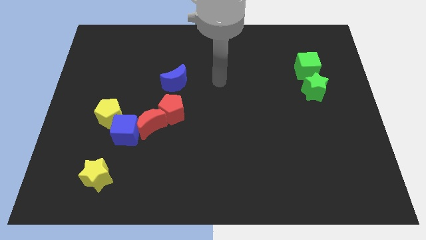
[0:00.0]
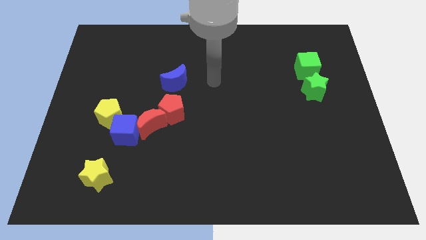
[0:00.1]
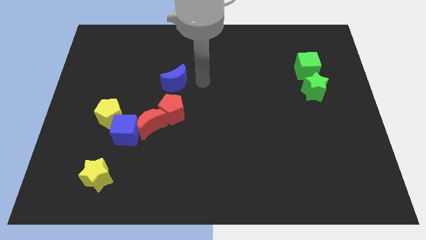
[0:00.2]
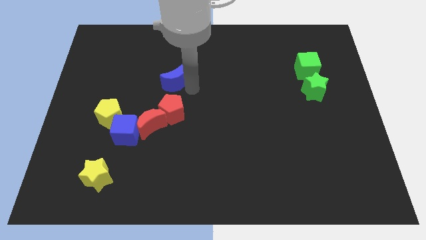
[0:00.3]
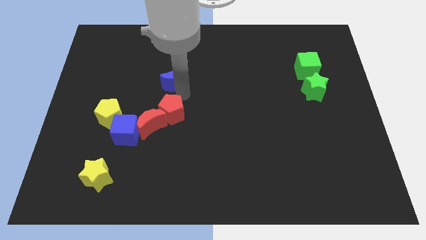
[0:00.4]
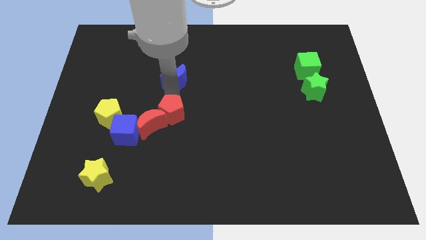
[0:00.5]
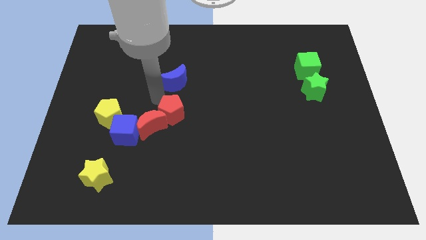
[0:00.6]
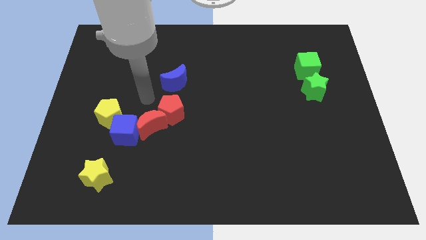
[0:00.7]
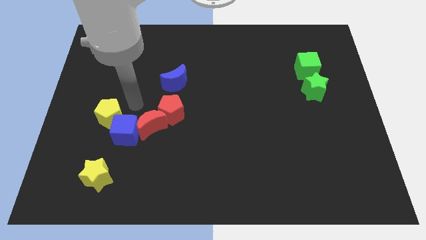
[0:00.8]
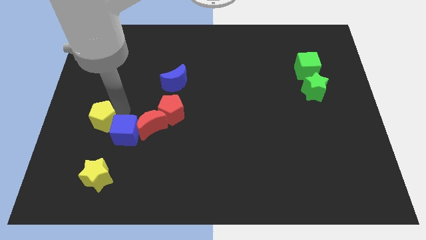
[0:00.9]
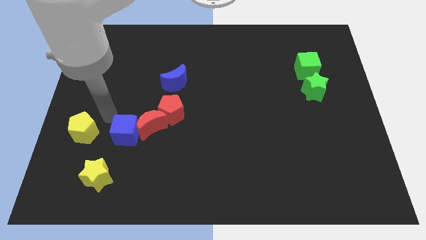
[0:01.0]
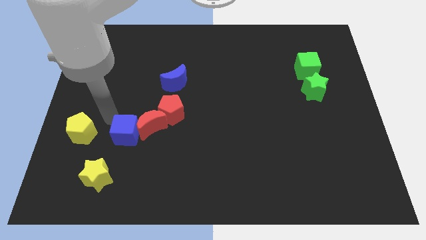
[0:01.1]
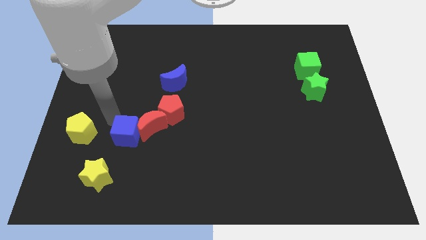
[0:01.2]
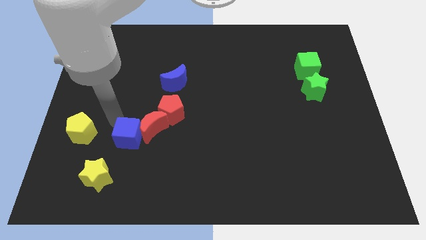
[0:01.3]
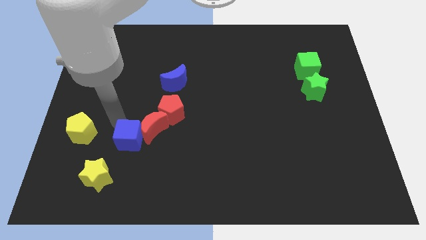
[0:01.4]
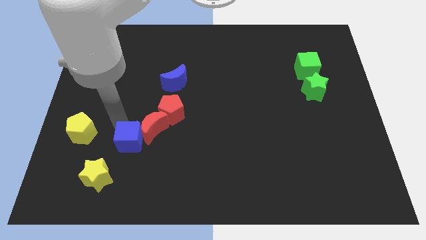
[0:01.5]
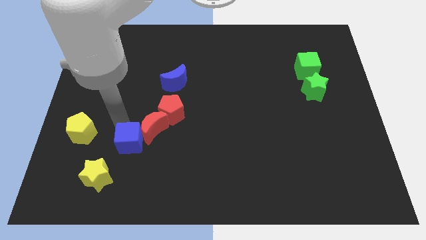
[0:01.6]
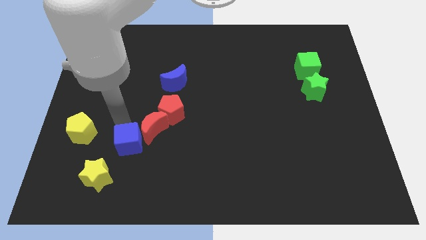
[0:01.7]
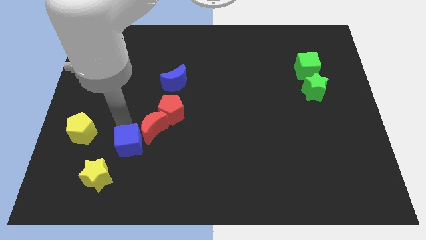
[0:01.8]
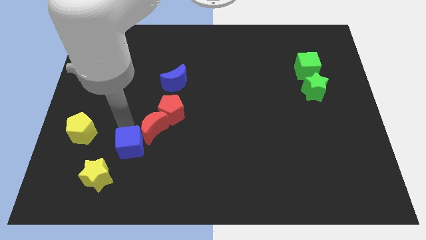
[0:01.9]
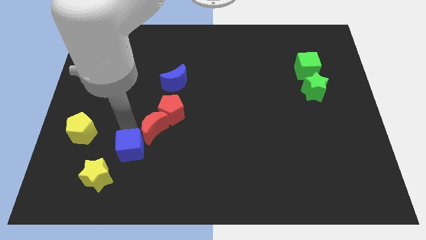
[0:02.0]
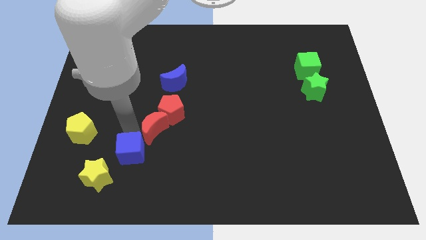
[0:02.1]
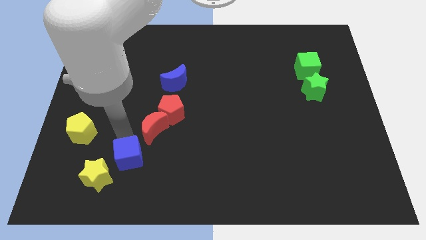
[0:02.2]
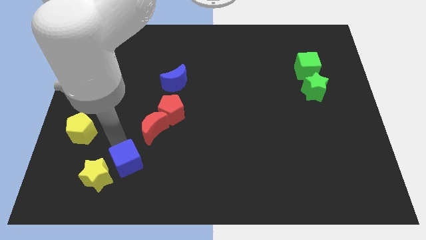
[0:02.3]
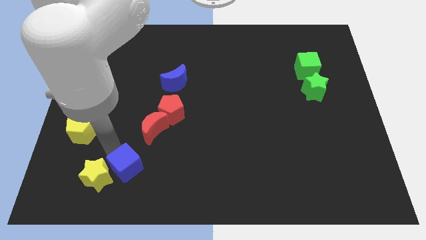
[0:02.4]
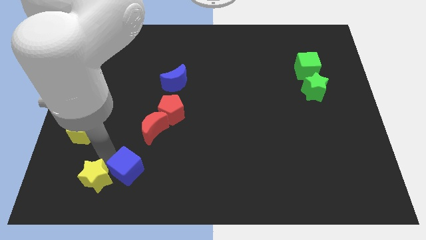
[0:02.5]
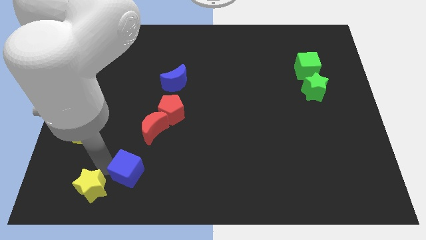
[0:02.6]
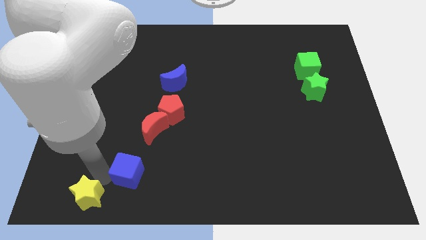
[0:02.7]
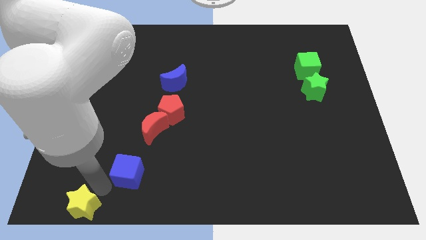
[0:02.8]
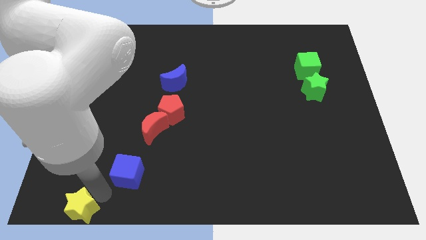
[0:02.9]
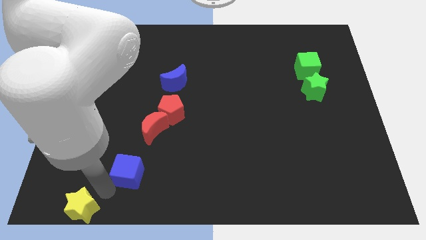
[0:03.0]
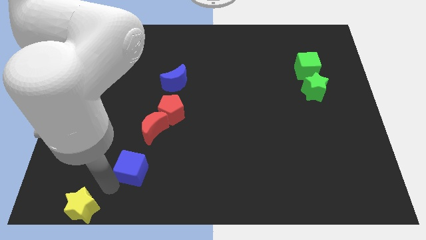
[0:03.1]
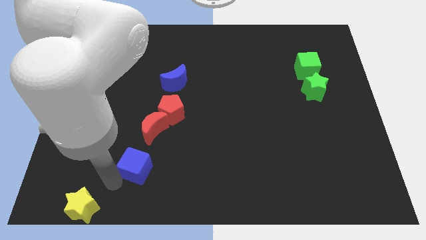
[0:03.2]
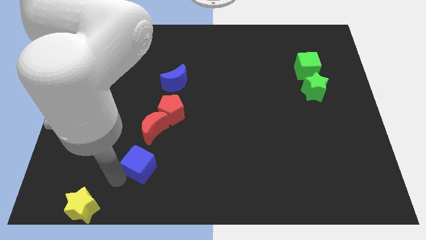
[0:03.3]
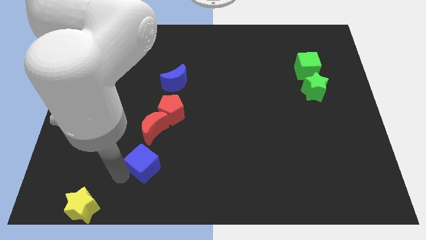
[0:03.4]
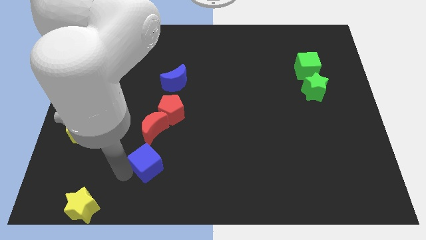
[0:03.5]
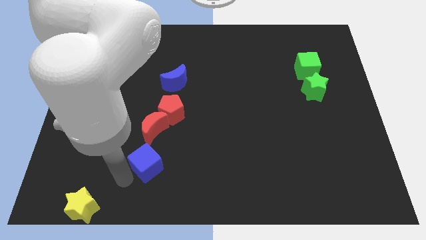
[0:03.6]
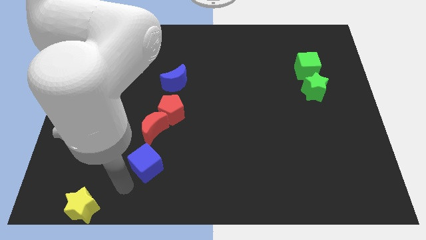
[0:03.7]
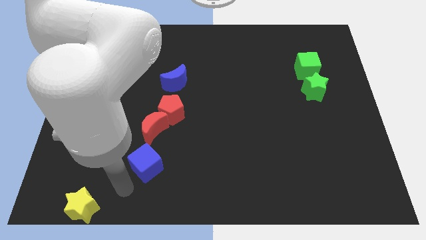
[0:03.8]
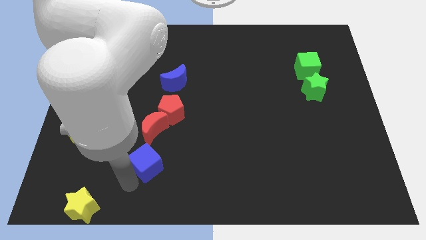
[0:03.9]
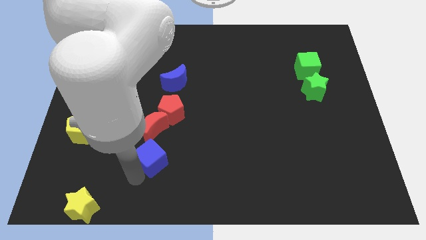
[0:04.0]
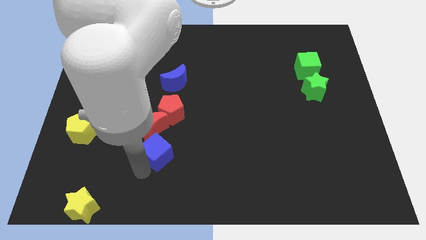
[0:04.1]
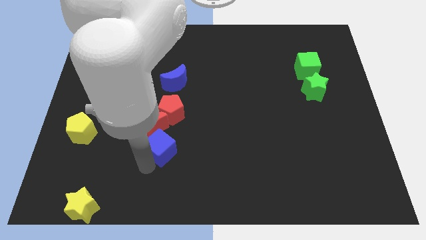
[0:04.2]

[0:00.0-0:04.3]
slide the blue cube right a little

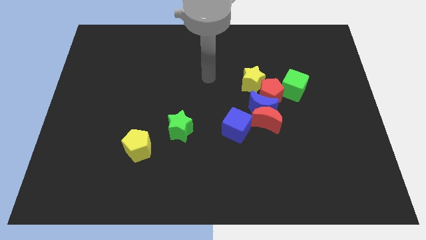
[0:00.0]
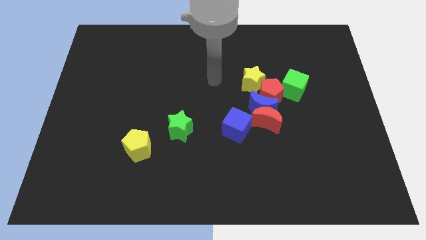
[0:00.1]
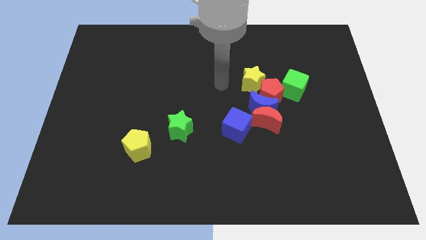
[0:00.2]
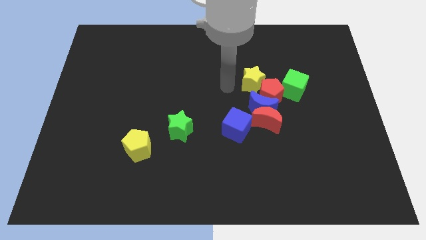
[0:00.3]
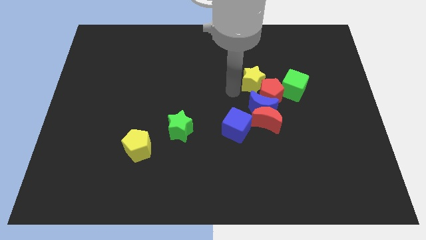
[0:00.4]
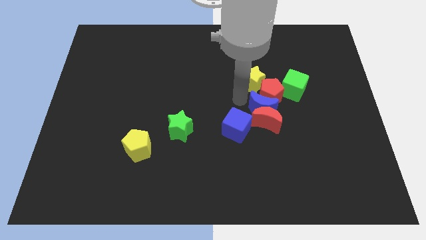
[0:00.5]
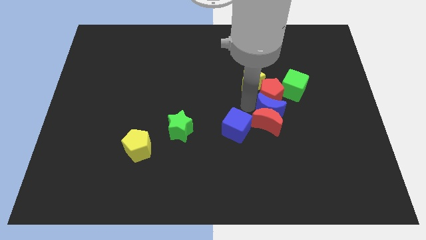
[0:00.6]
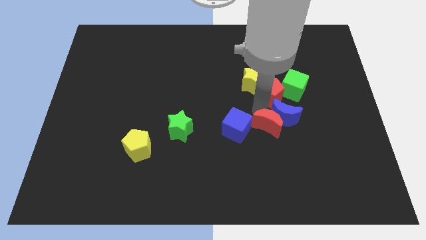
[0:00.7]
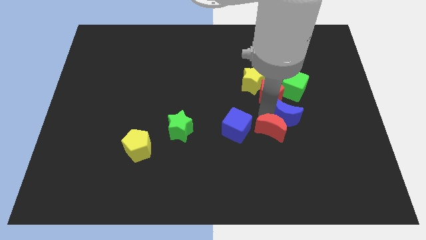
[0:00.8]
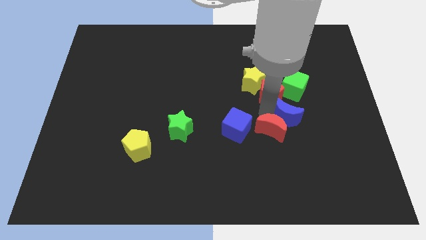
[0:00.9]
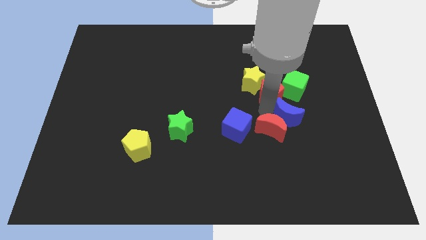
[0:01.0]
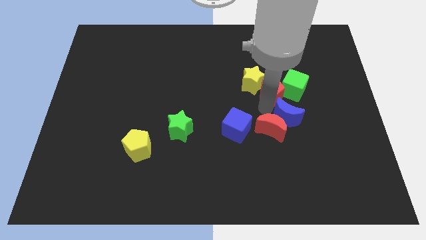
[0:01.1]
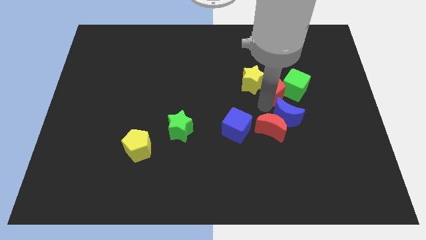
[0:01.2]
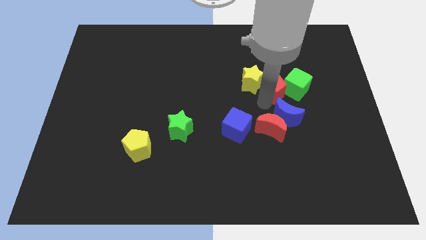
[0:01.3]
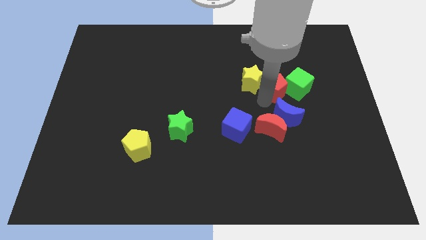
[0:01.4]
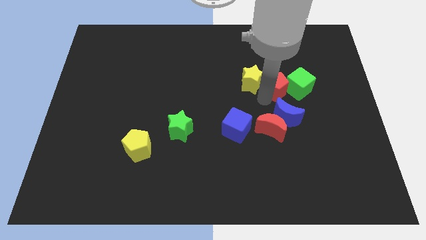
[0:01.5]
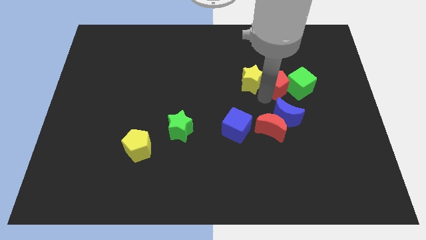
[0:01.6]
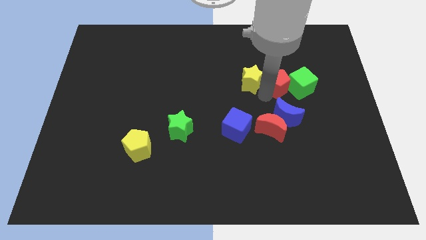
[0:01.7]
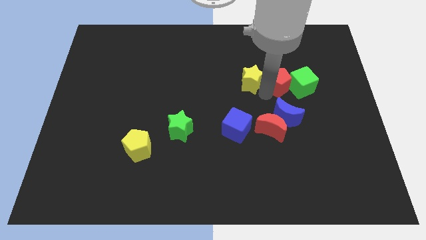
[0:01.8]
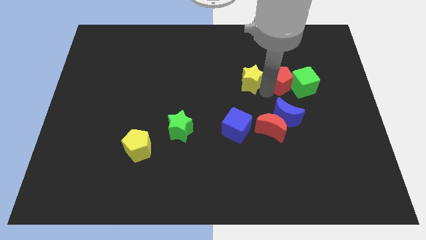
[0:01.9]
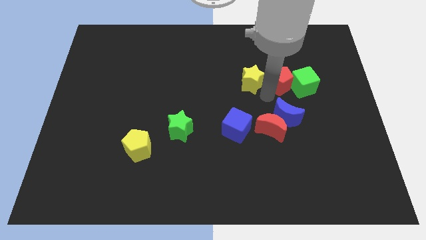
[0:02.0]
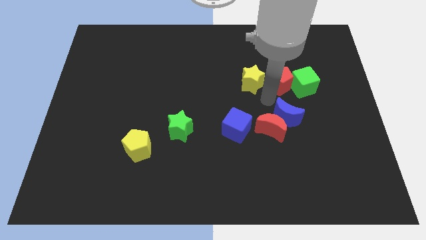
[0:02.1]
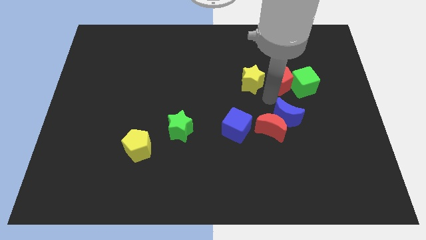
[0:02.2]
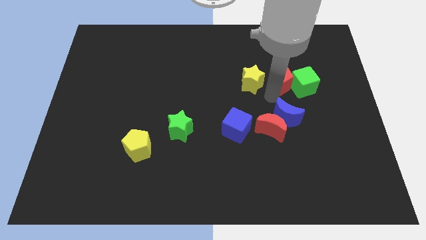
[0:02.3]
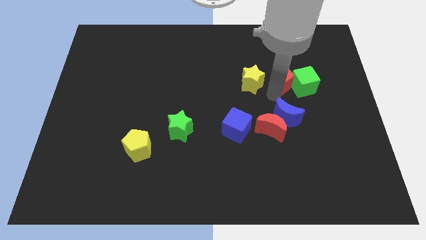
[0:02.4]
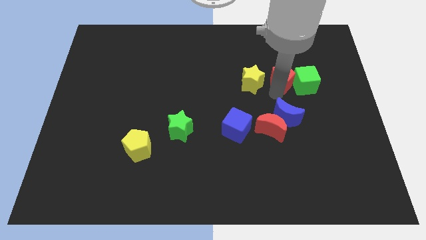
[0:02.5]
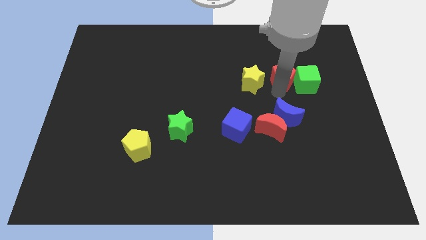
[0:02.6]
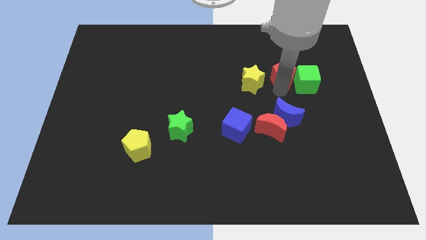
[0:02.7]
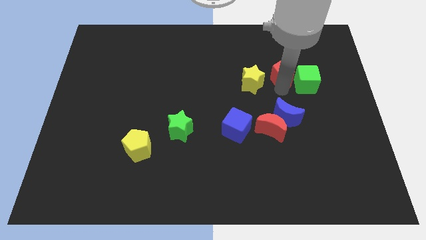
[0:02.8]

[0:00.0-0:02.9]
push the red pentagon a bit up and to the right diagonally

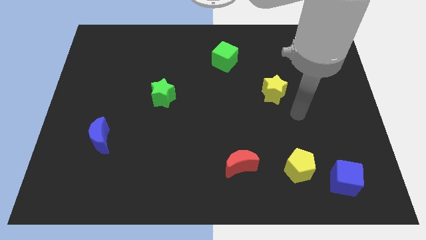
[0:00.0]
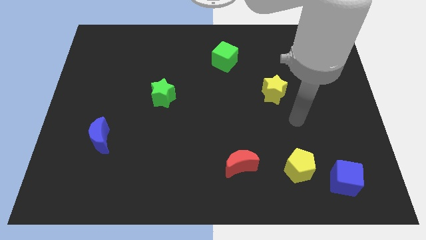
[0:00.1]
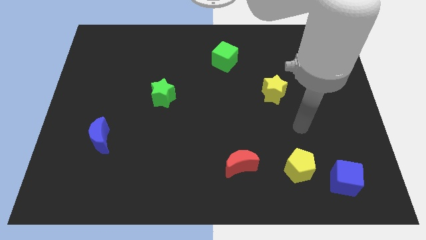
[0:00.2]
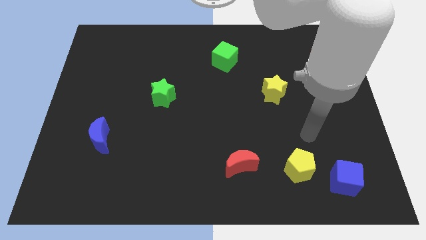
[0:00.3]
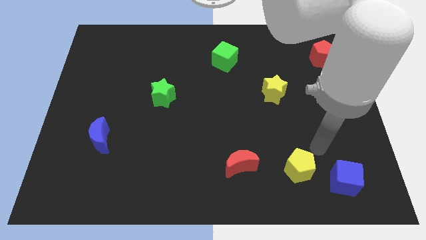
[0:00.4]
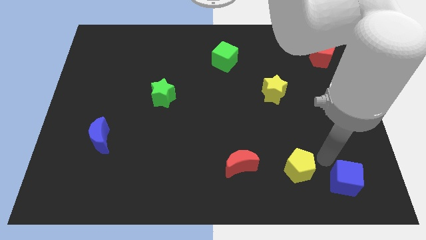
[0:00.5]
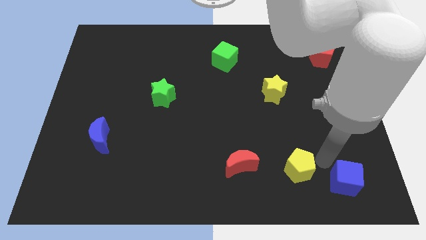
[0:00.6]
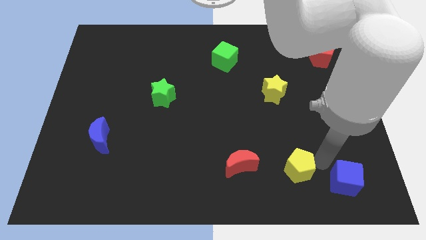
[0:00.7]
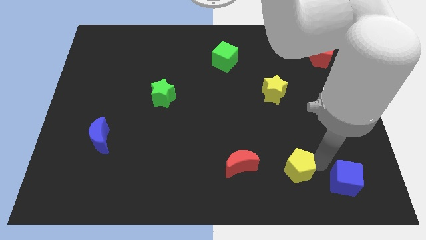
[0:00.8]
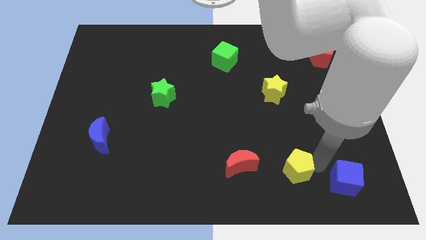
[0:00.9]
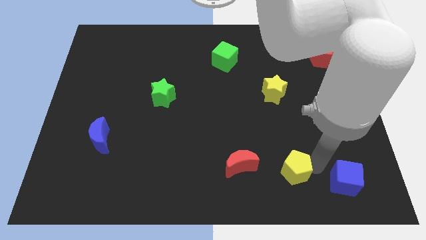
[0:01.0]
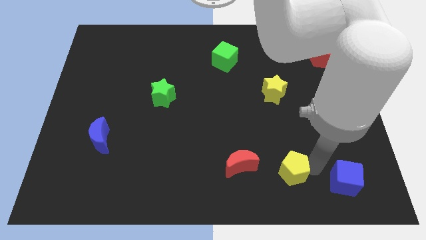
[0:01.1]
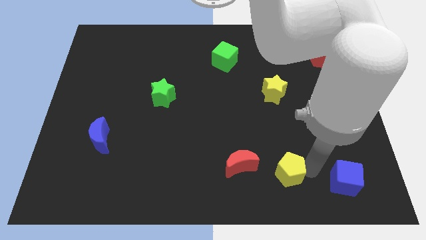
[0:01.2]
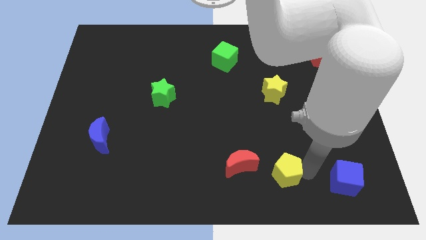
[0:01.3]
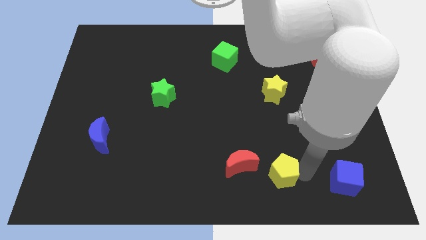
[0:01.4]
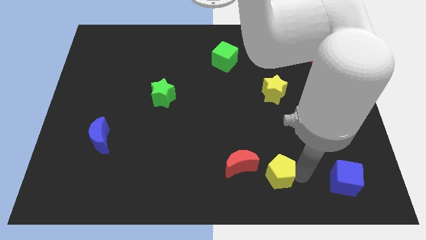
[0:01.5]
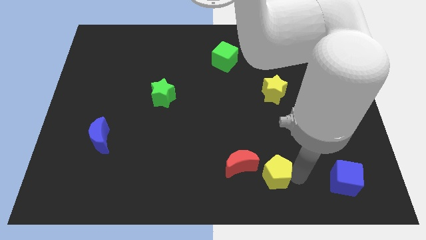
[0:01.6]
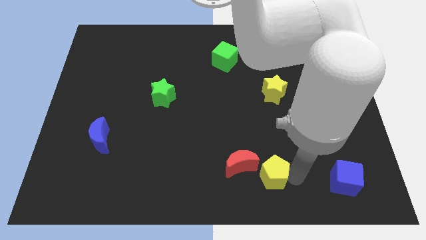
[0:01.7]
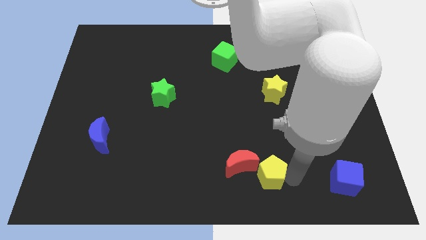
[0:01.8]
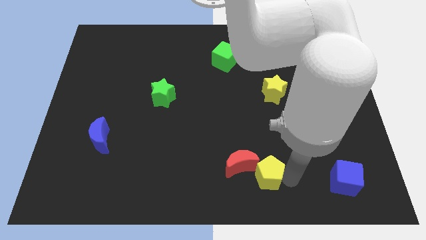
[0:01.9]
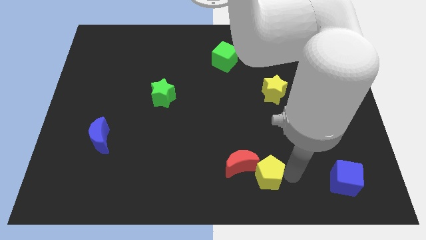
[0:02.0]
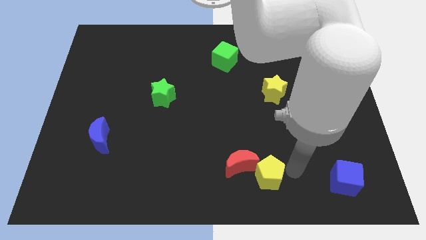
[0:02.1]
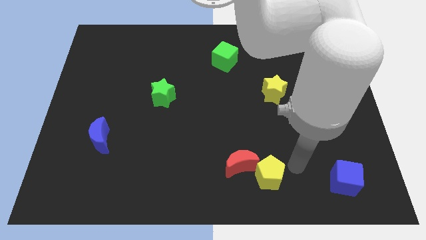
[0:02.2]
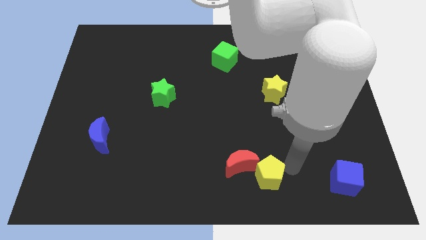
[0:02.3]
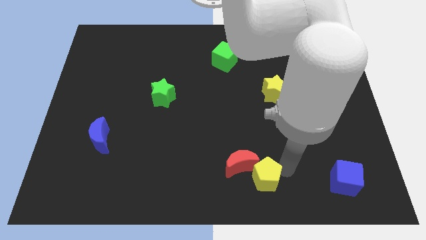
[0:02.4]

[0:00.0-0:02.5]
slide the yellow pentagon left a little bit
